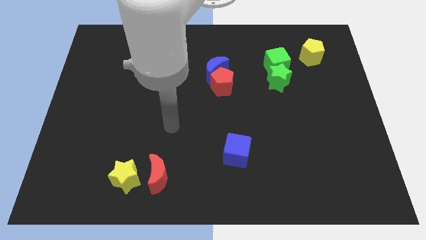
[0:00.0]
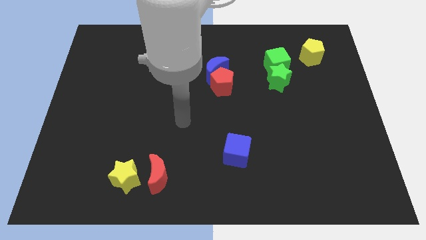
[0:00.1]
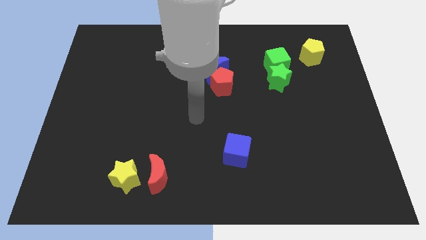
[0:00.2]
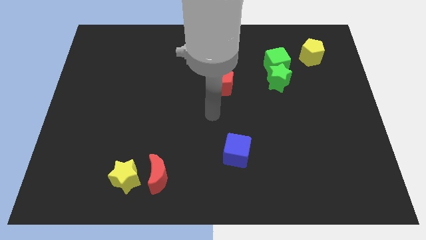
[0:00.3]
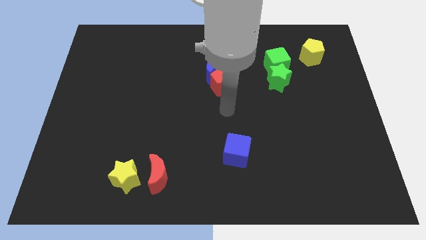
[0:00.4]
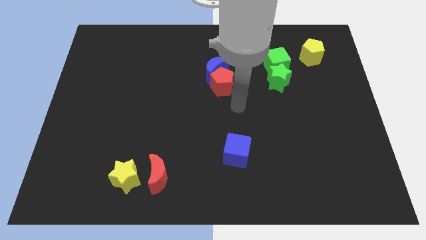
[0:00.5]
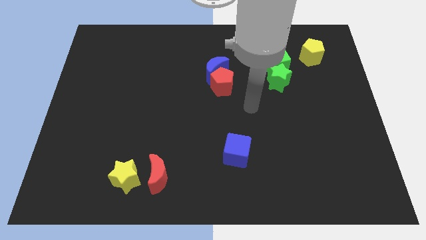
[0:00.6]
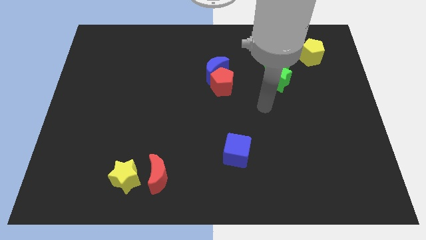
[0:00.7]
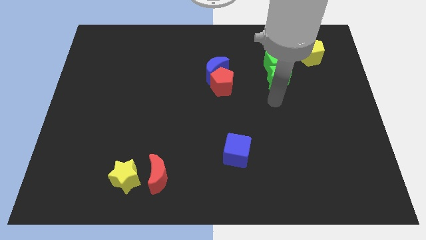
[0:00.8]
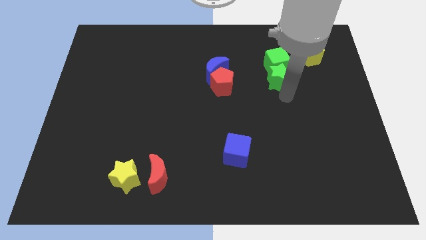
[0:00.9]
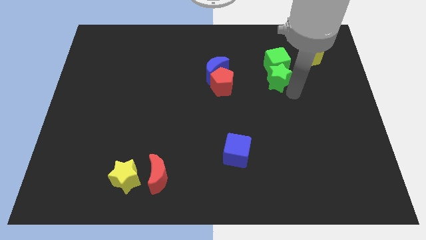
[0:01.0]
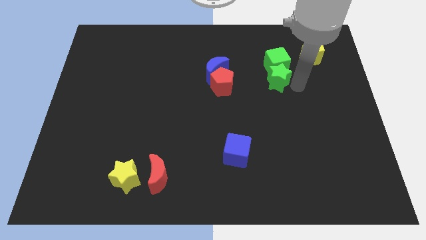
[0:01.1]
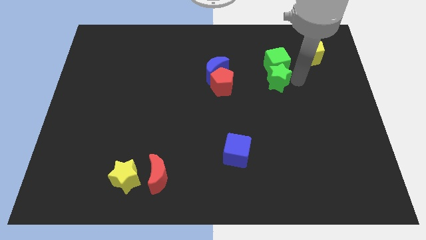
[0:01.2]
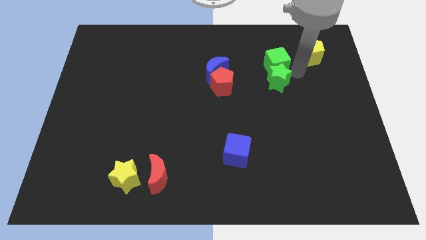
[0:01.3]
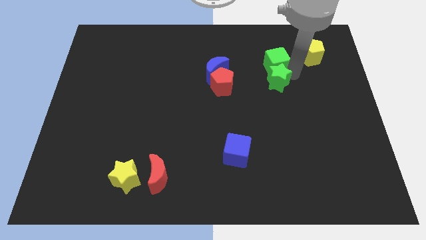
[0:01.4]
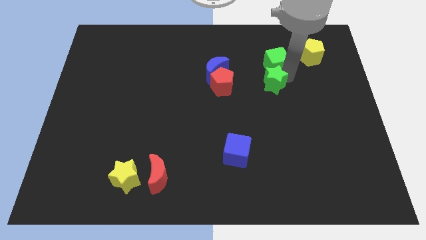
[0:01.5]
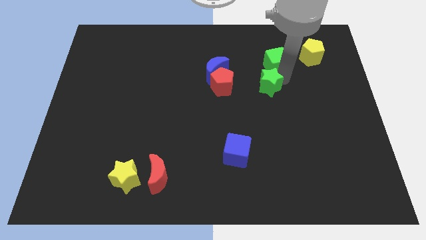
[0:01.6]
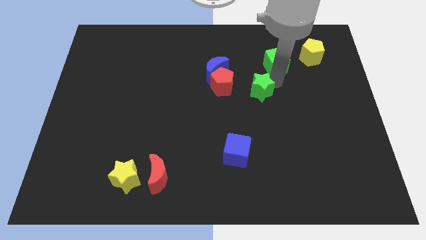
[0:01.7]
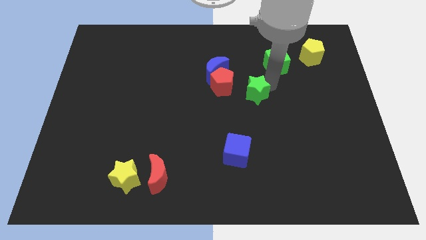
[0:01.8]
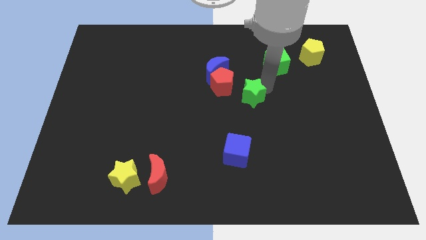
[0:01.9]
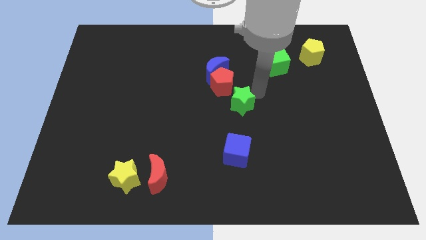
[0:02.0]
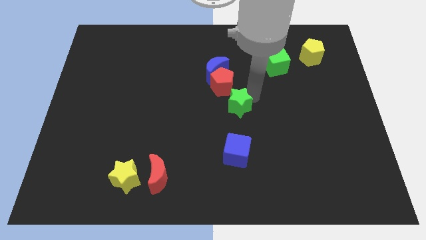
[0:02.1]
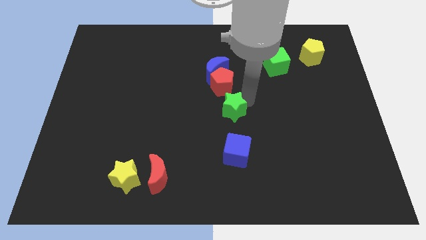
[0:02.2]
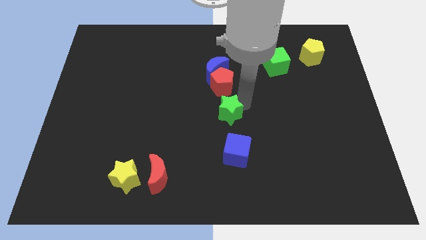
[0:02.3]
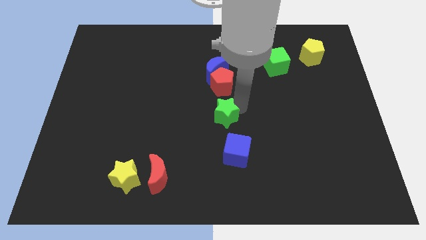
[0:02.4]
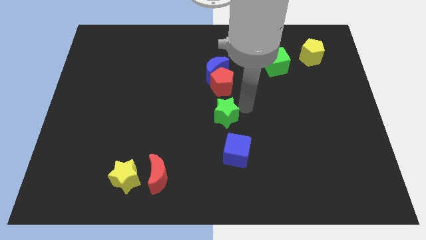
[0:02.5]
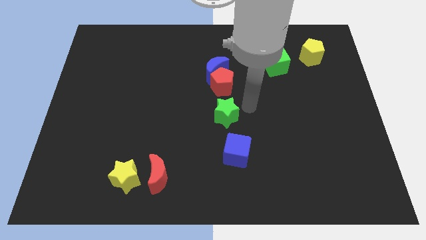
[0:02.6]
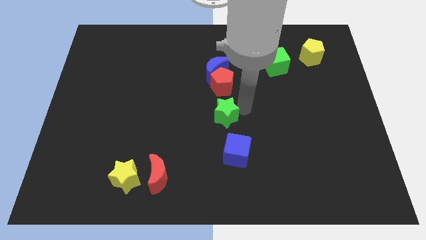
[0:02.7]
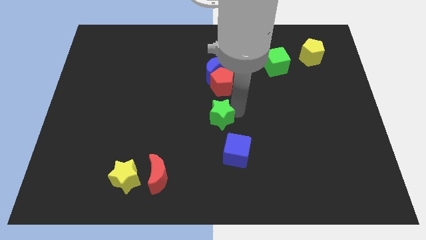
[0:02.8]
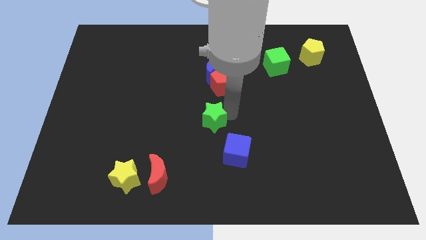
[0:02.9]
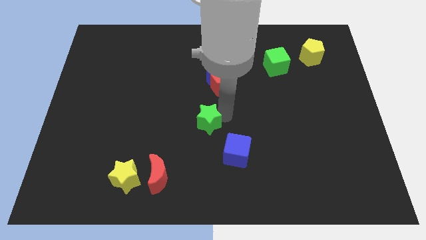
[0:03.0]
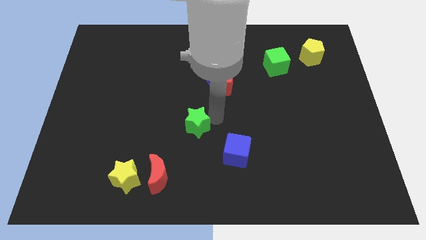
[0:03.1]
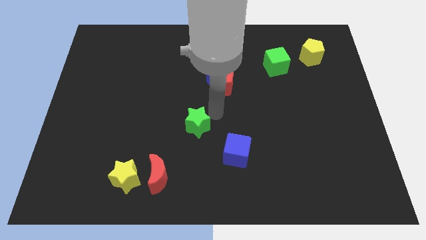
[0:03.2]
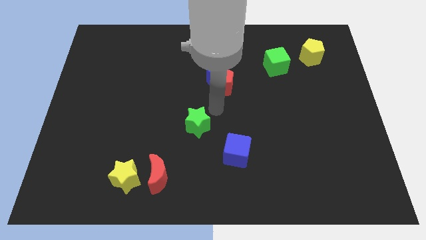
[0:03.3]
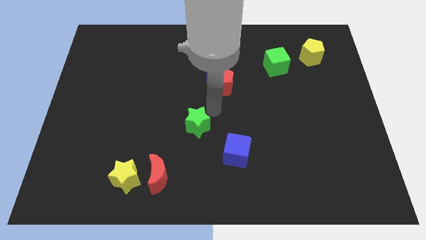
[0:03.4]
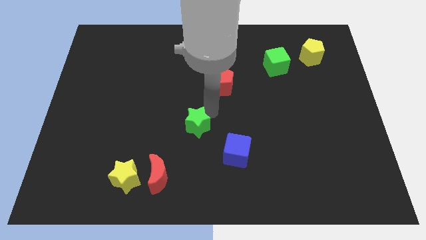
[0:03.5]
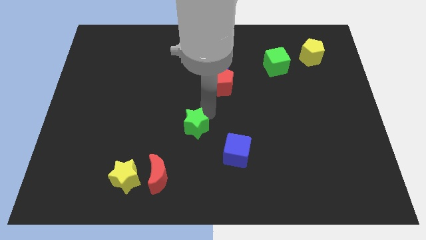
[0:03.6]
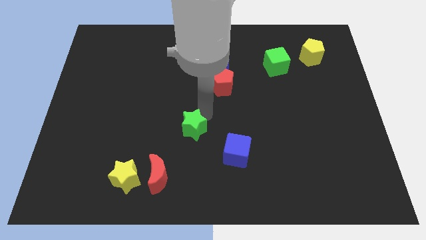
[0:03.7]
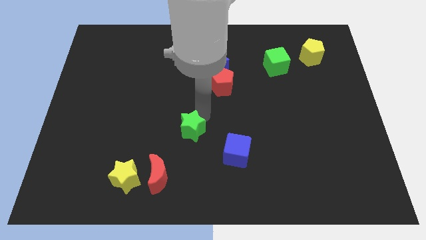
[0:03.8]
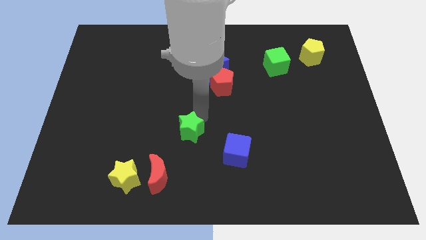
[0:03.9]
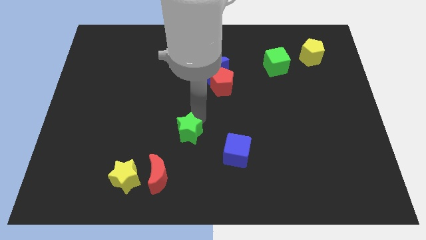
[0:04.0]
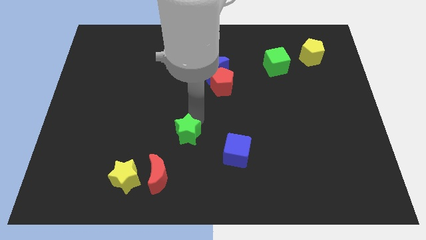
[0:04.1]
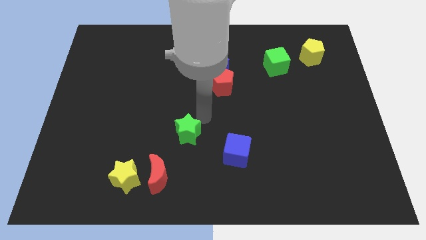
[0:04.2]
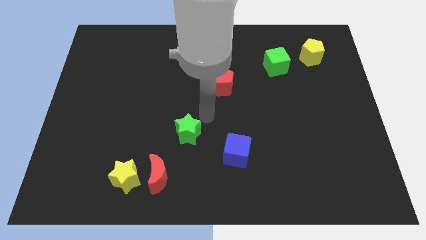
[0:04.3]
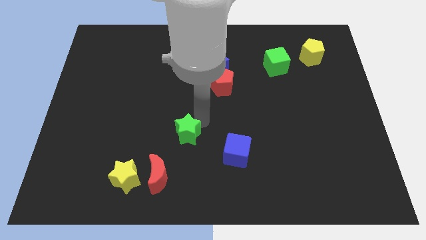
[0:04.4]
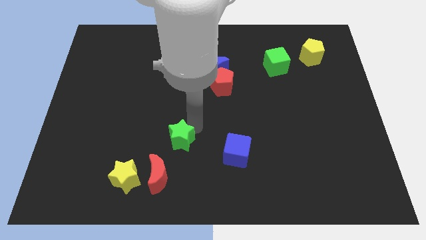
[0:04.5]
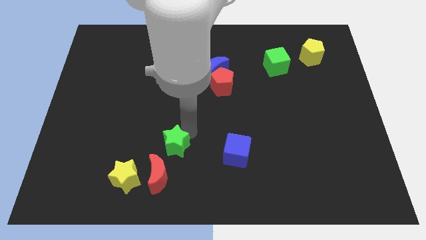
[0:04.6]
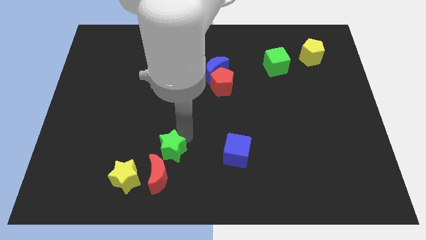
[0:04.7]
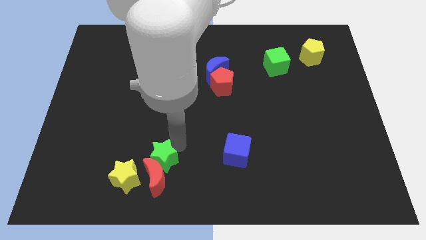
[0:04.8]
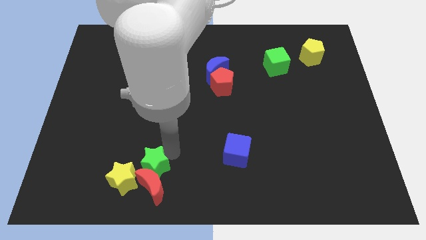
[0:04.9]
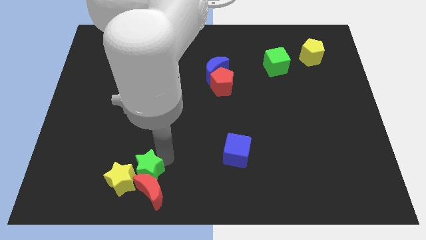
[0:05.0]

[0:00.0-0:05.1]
push the green star next to the yellow star

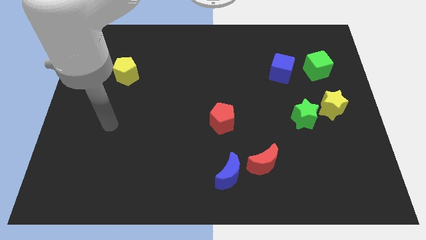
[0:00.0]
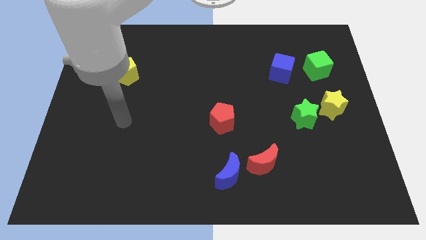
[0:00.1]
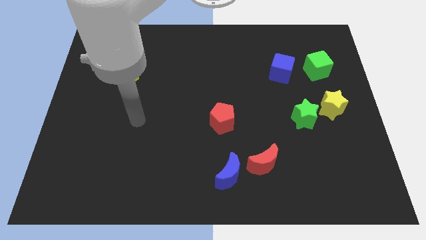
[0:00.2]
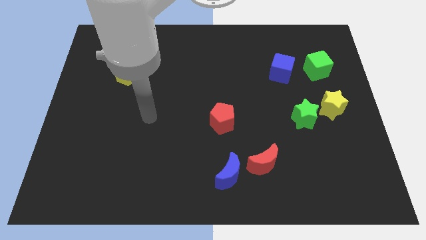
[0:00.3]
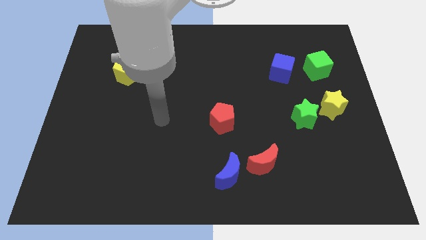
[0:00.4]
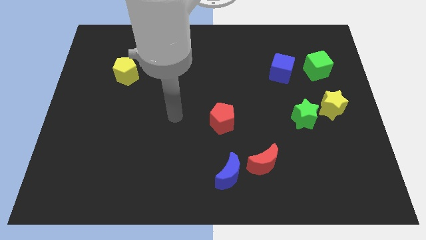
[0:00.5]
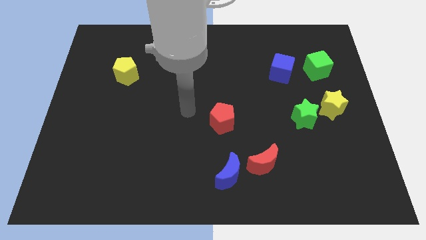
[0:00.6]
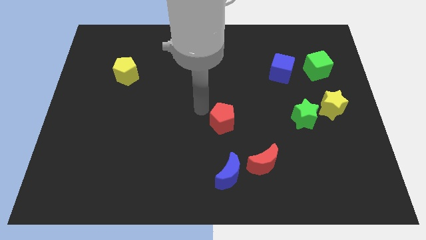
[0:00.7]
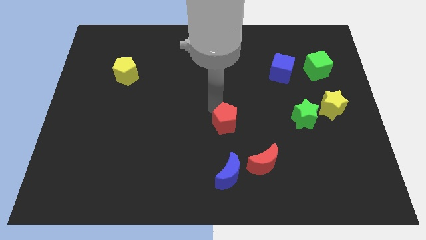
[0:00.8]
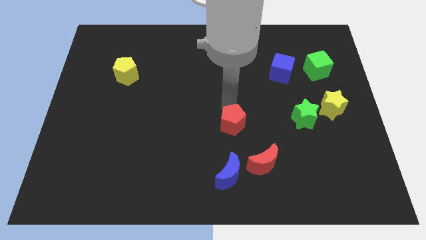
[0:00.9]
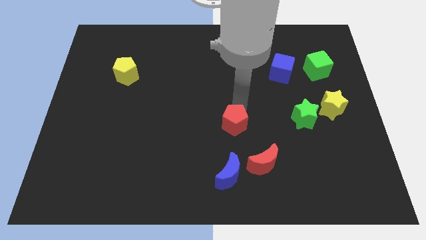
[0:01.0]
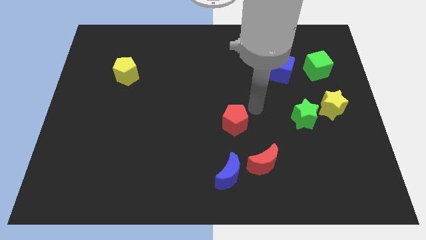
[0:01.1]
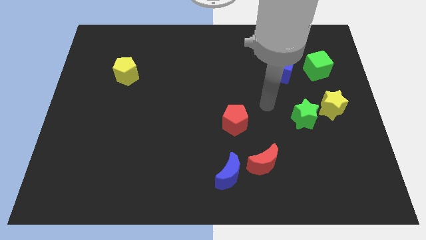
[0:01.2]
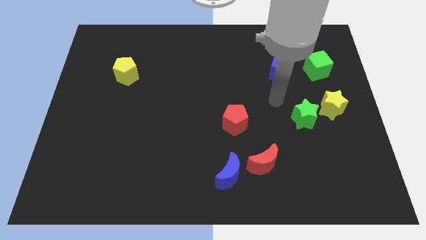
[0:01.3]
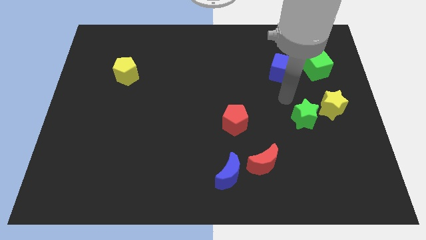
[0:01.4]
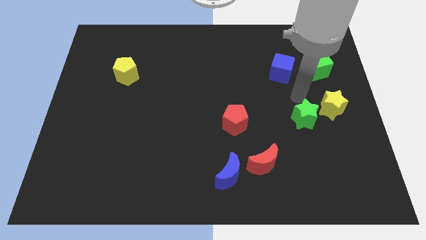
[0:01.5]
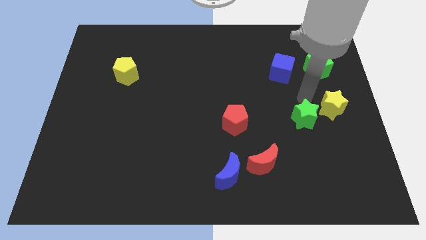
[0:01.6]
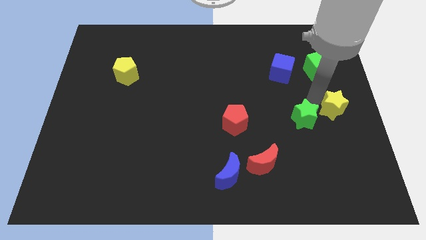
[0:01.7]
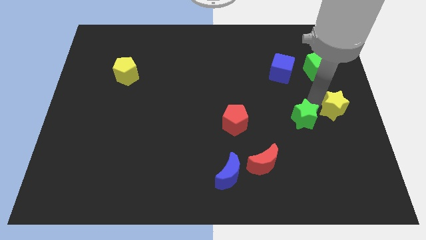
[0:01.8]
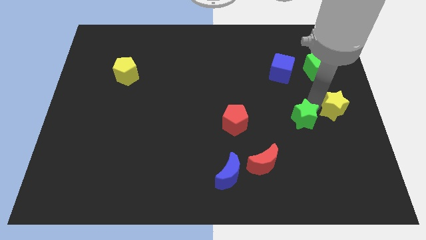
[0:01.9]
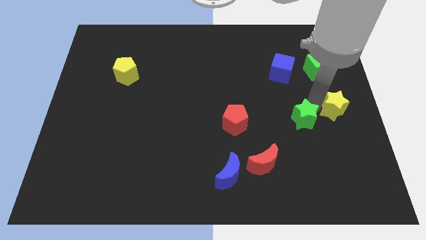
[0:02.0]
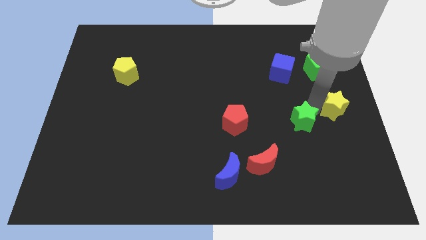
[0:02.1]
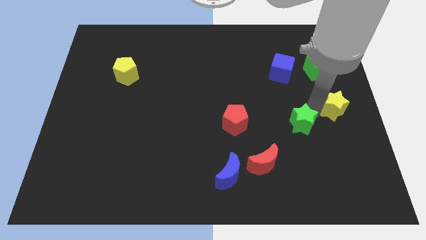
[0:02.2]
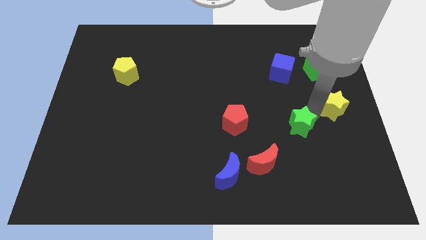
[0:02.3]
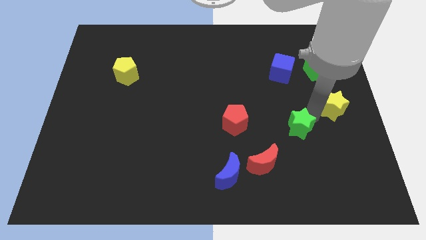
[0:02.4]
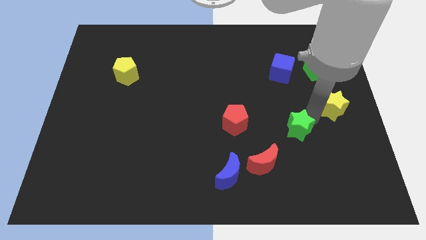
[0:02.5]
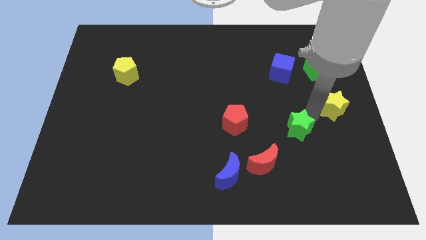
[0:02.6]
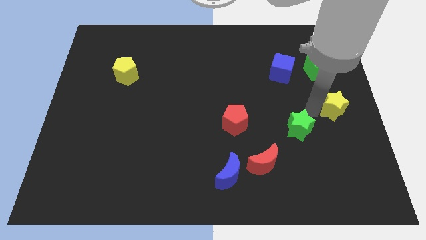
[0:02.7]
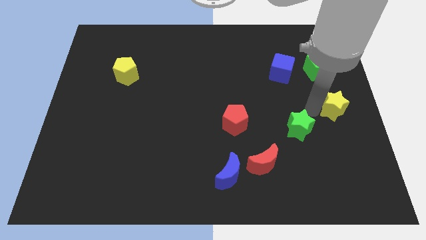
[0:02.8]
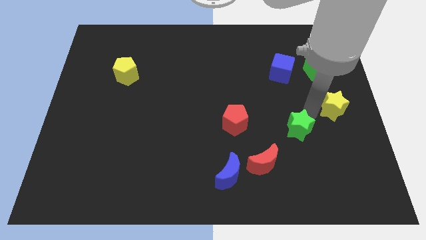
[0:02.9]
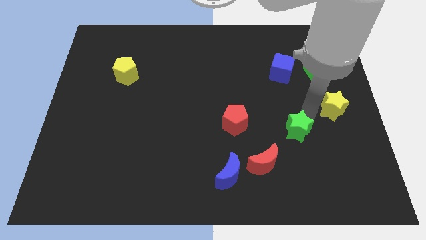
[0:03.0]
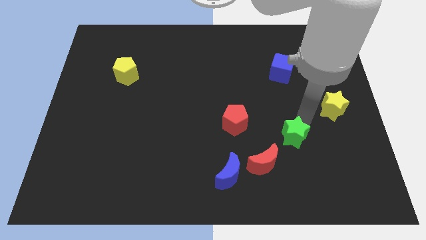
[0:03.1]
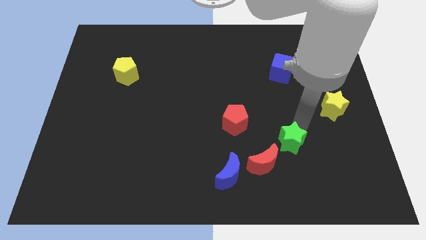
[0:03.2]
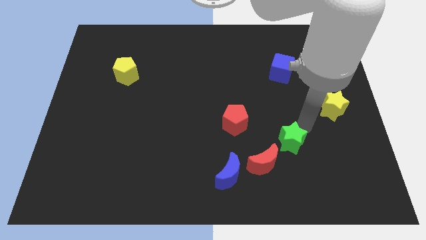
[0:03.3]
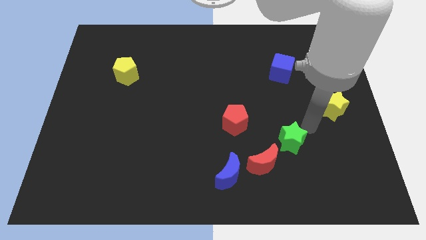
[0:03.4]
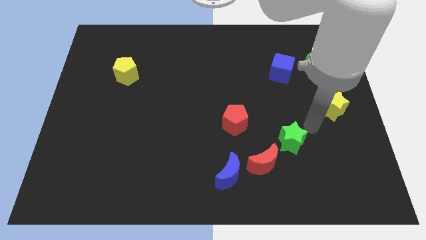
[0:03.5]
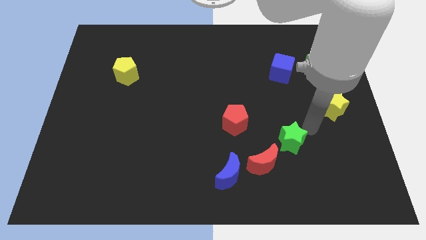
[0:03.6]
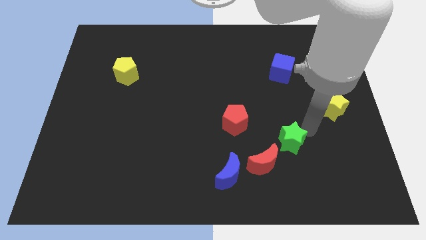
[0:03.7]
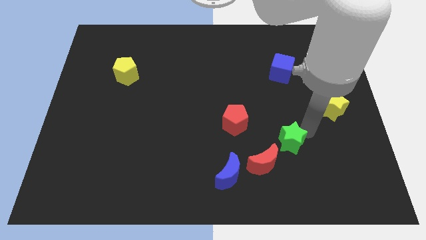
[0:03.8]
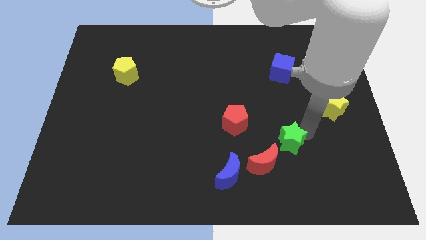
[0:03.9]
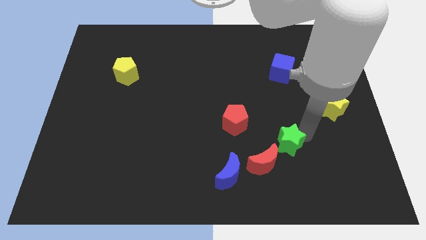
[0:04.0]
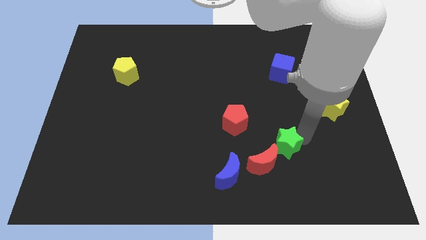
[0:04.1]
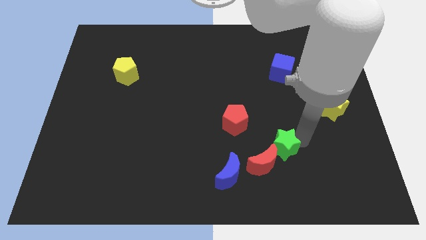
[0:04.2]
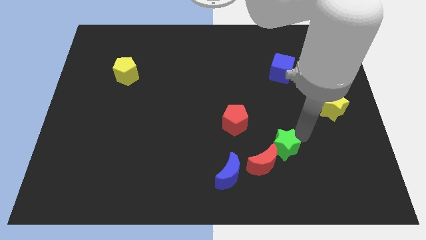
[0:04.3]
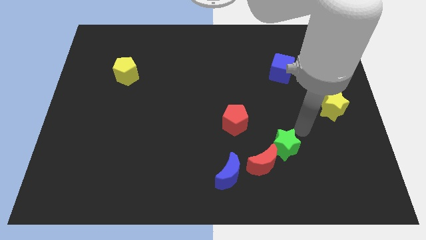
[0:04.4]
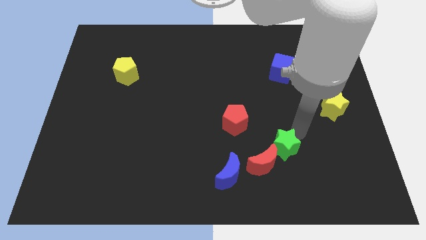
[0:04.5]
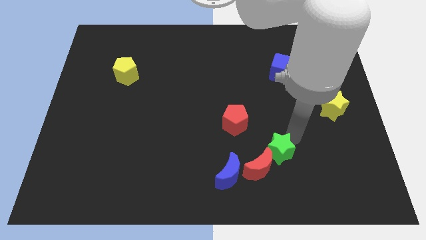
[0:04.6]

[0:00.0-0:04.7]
push the green star close to the red moon
